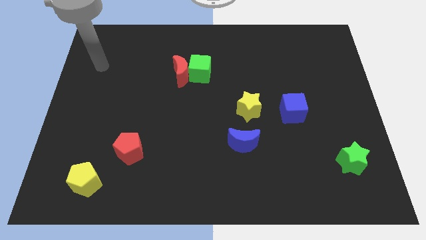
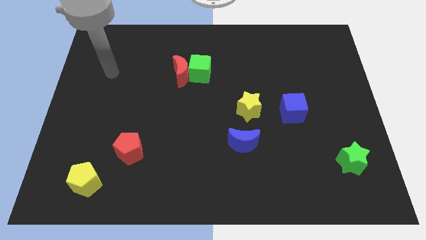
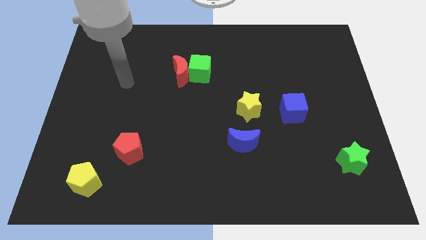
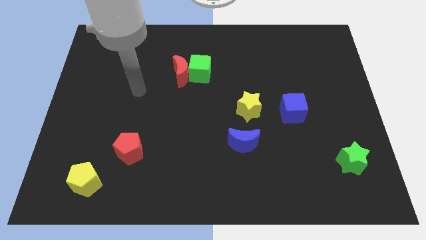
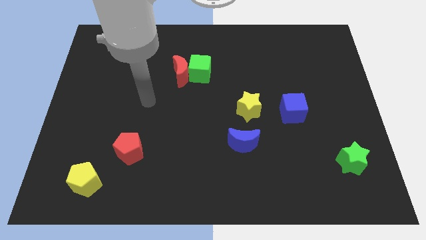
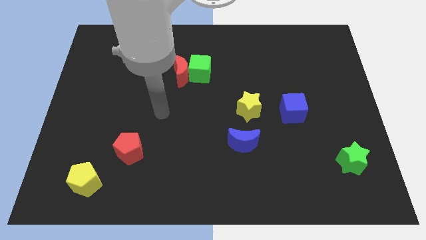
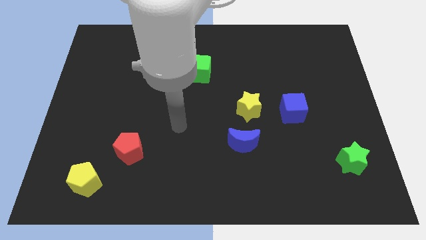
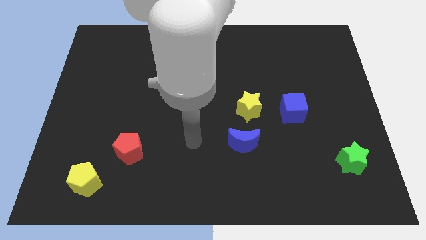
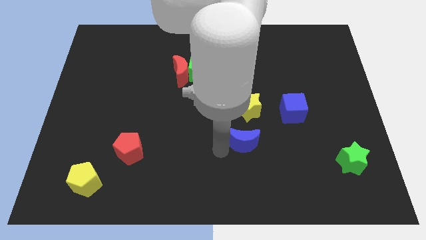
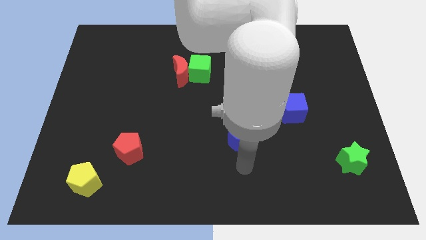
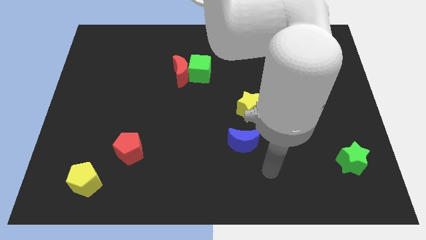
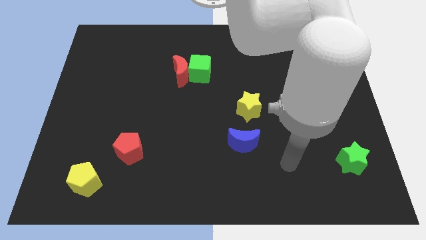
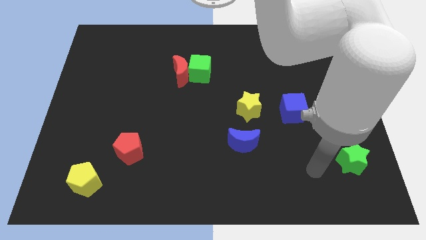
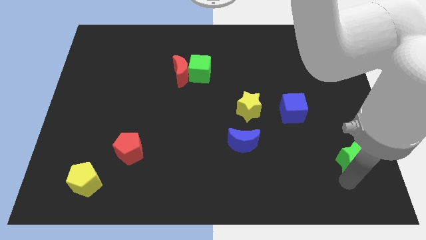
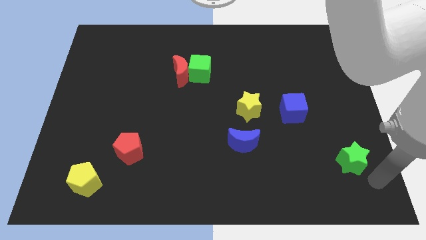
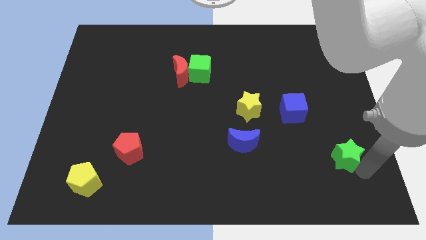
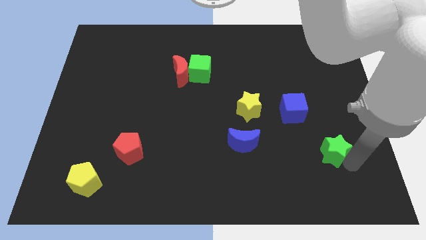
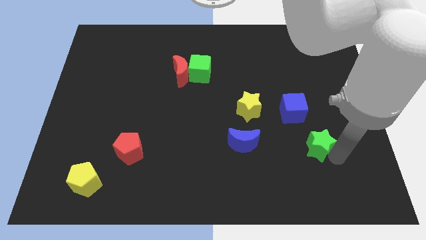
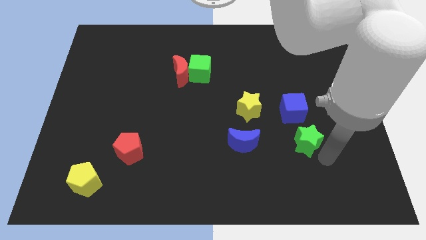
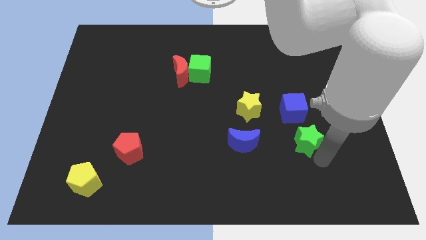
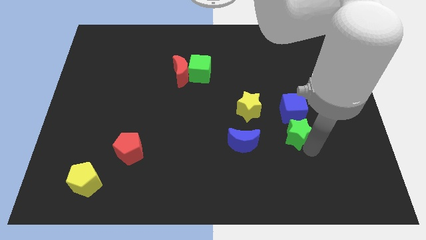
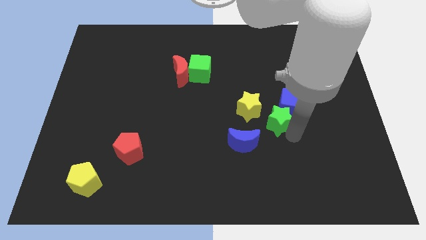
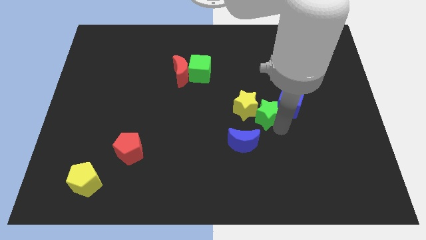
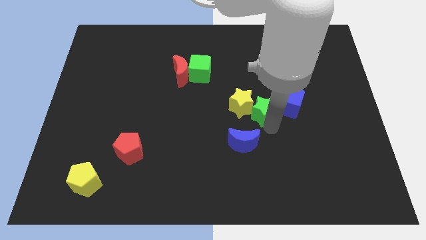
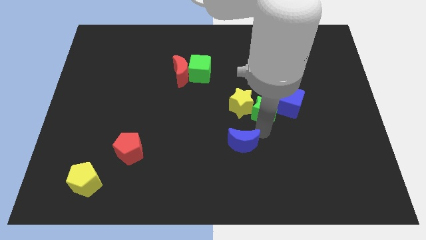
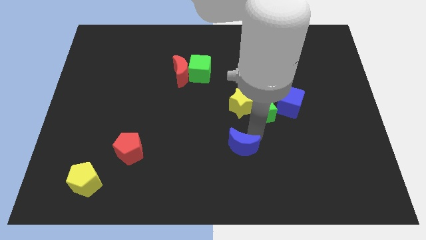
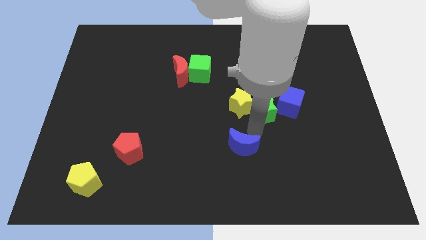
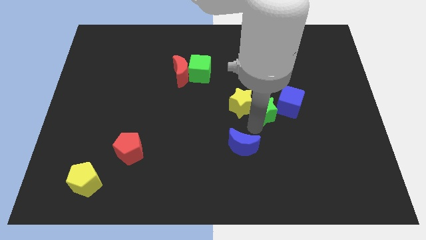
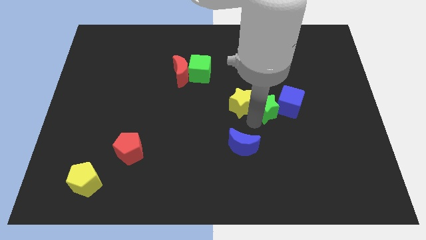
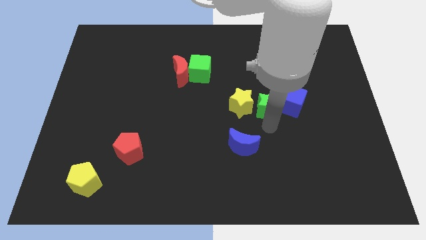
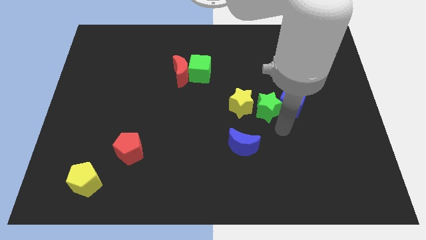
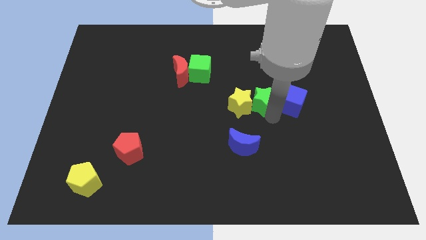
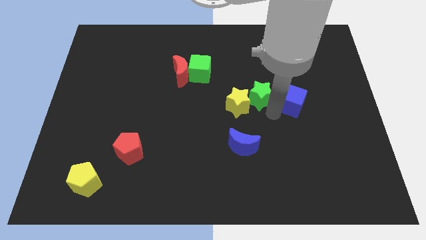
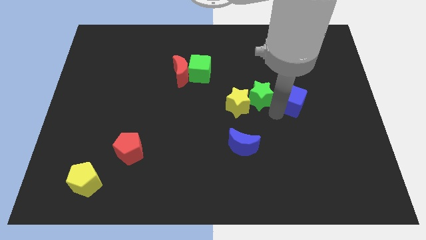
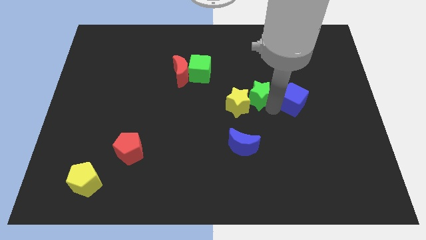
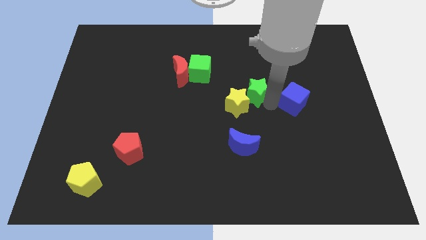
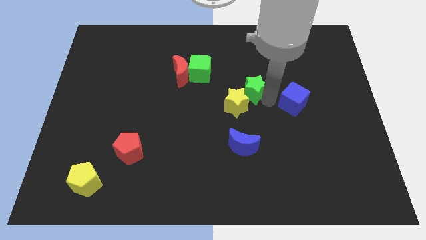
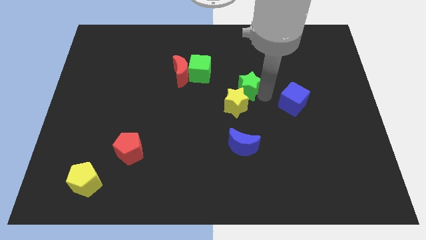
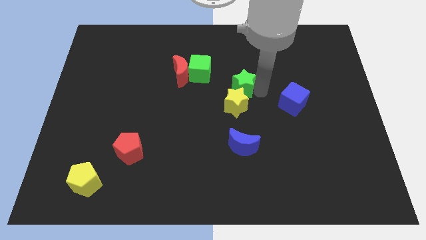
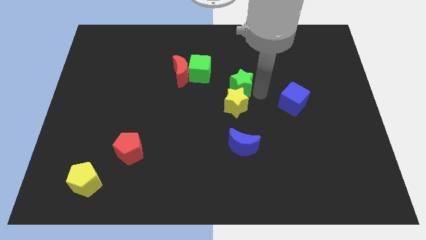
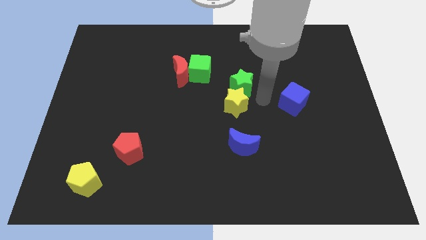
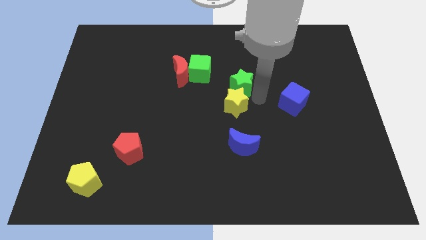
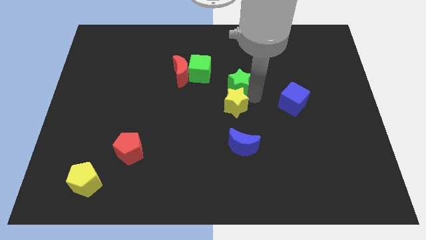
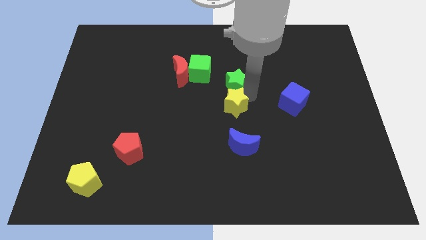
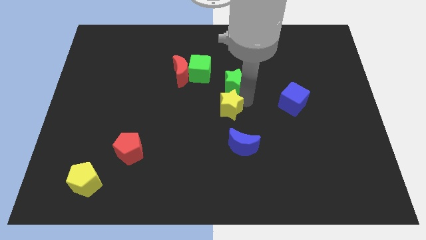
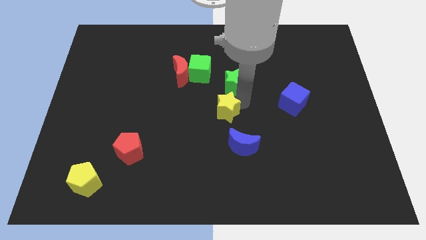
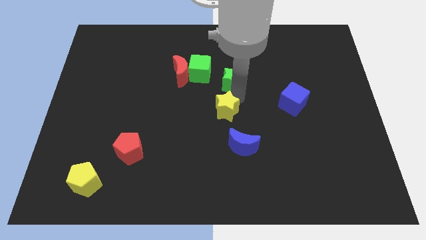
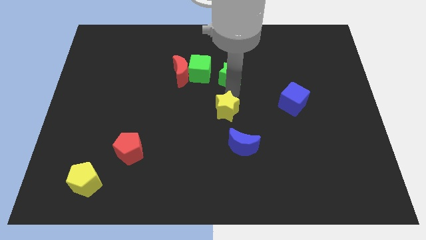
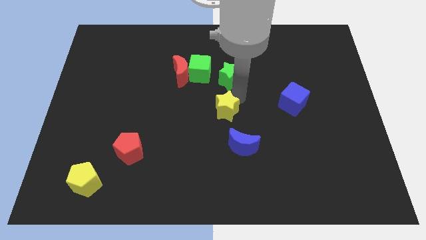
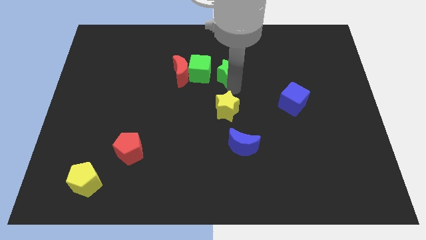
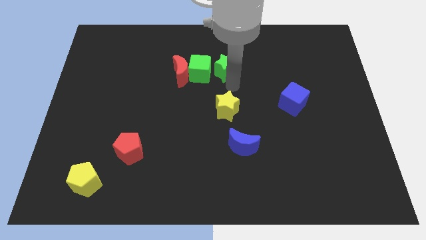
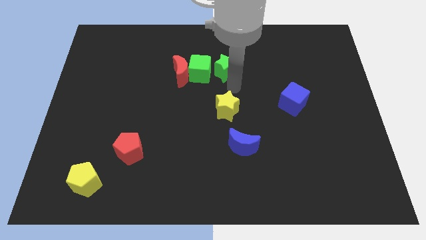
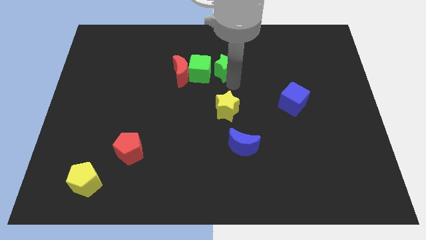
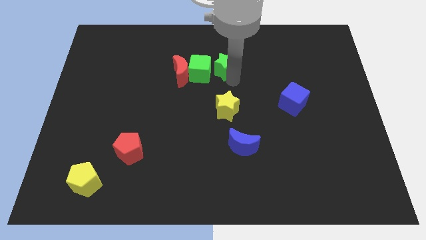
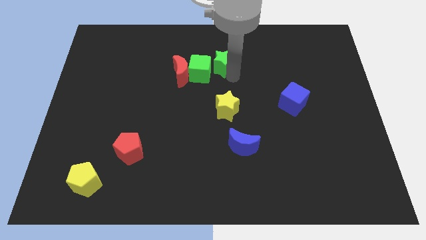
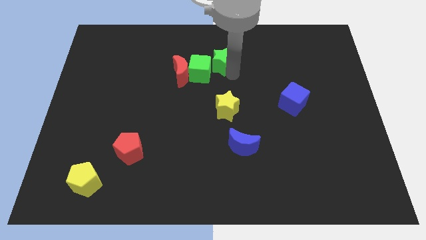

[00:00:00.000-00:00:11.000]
push the green star to the top right side of the red moon

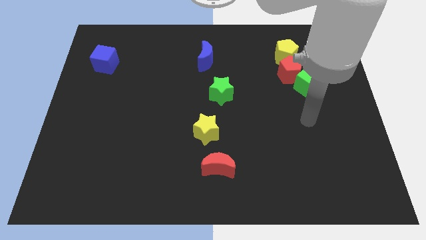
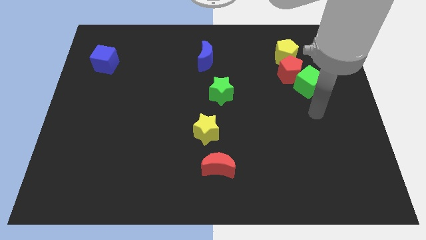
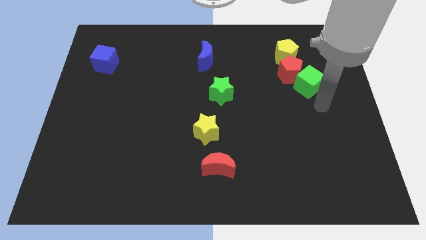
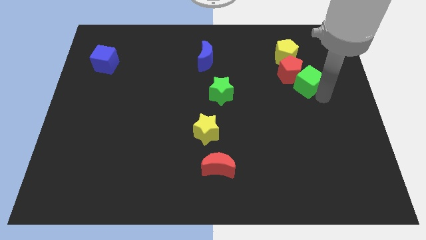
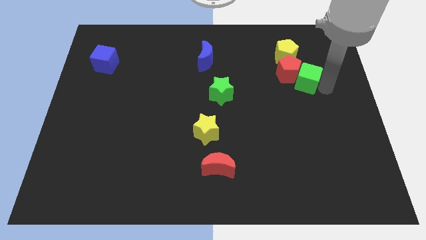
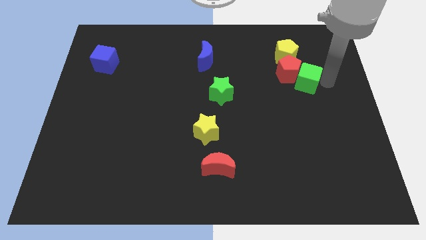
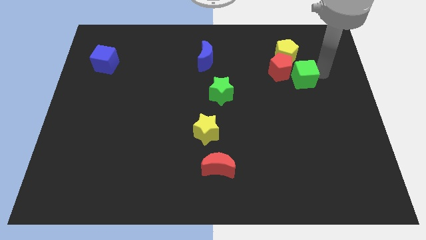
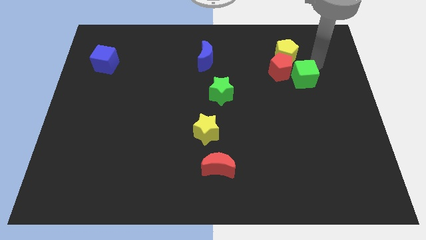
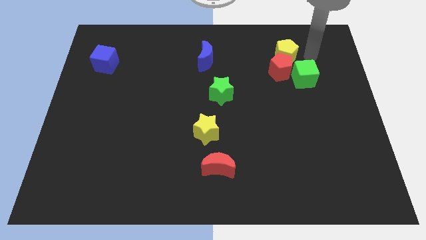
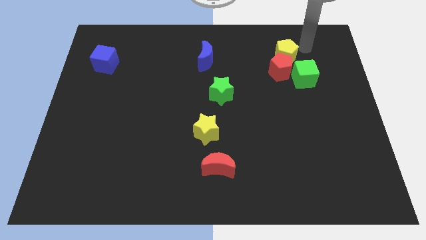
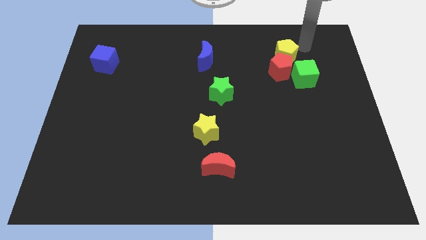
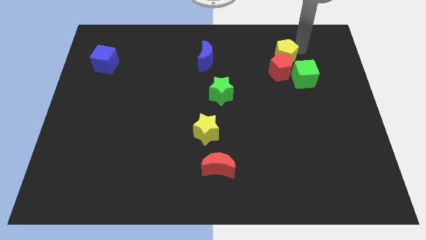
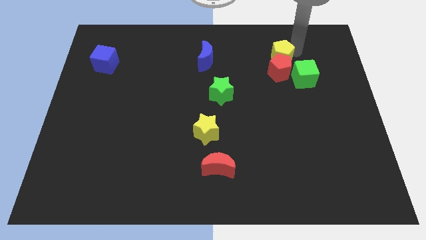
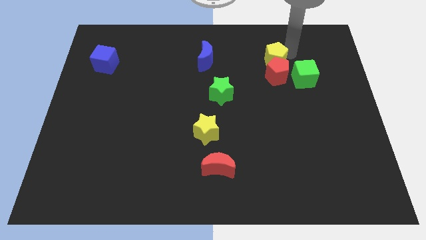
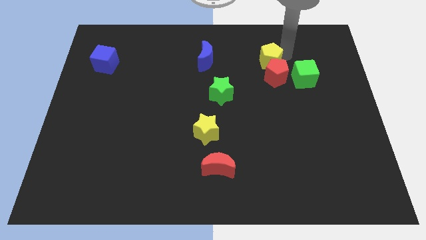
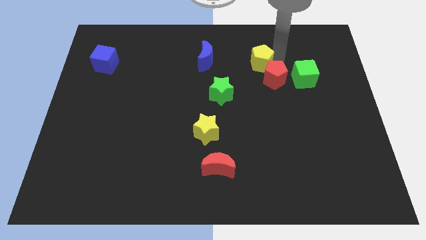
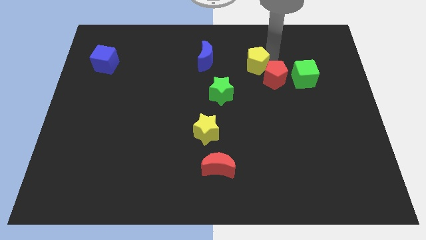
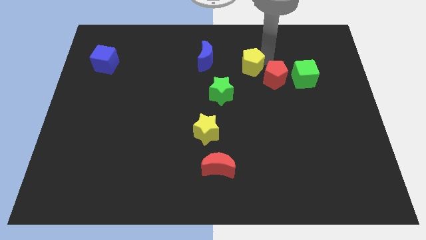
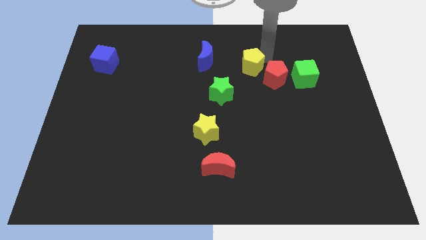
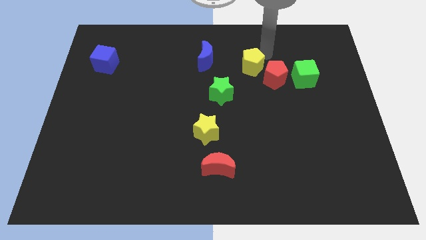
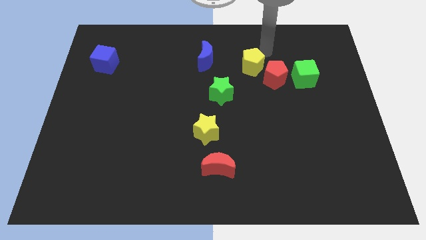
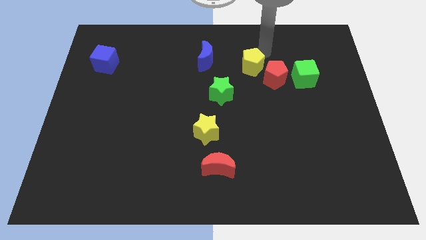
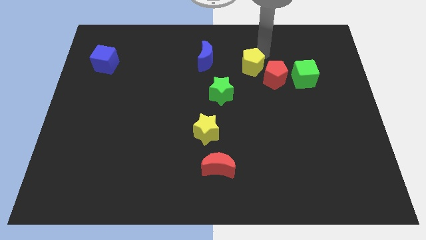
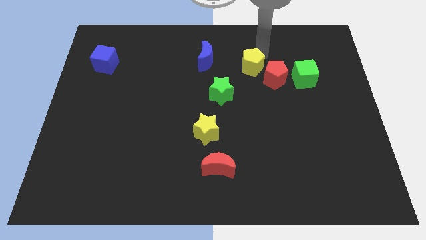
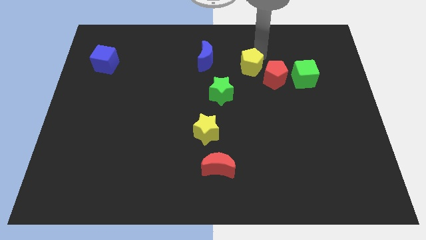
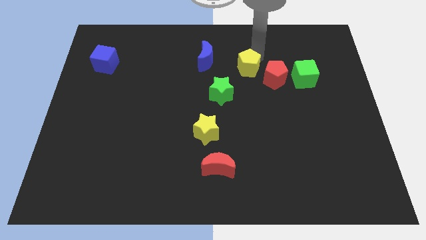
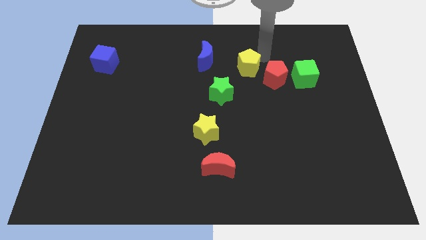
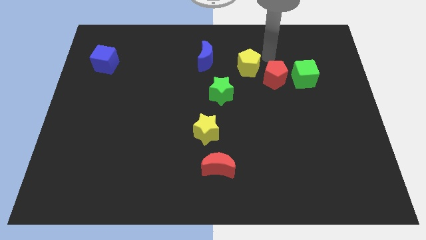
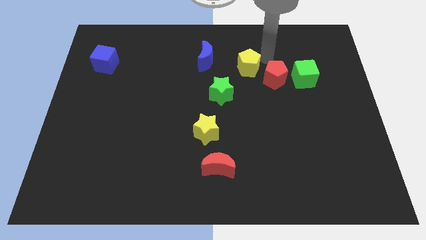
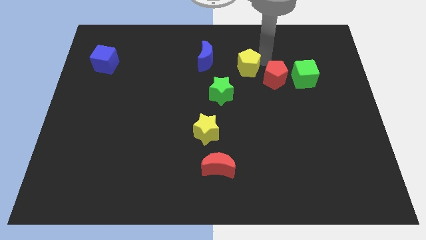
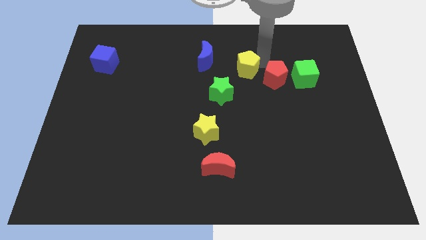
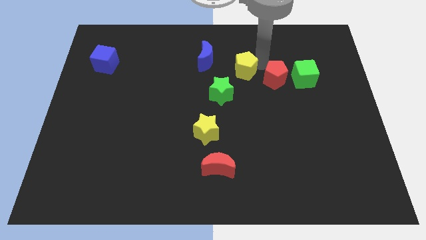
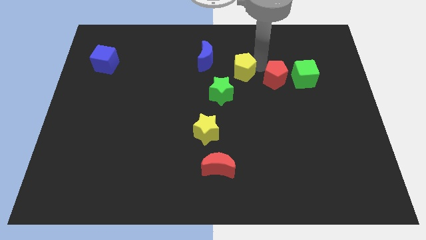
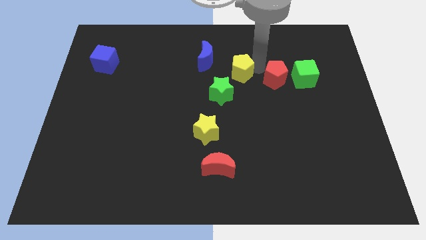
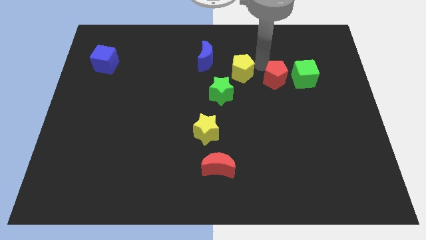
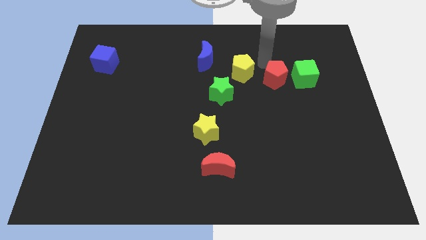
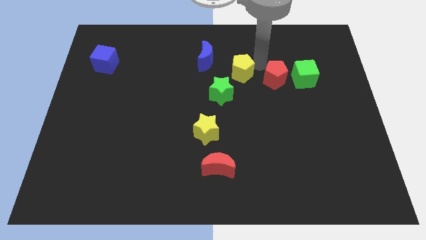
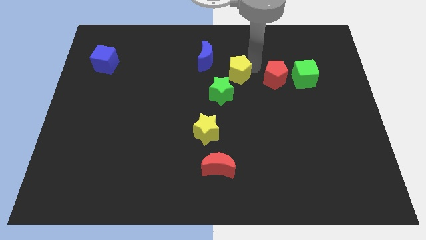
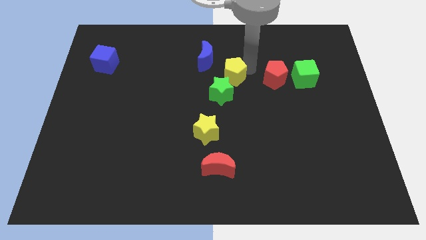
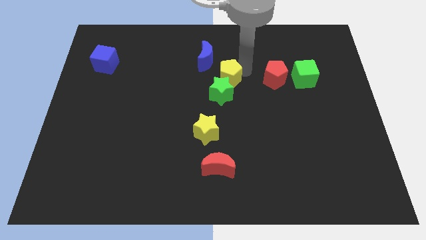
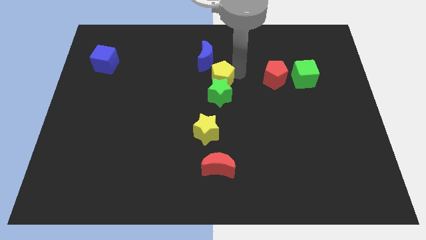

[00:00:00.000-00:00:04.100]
move the yellow pentagon to the bottom side of the blue moon
